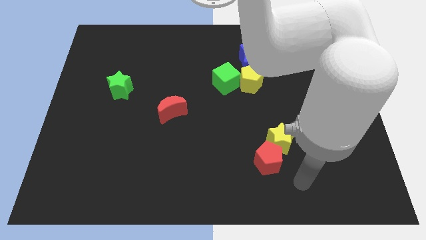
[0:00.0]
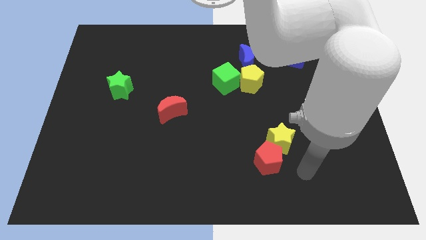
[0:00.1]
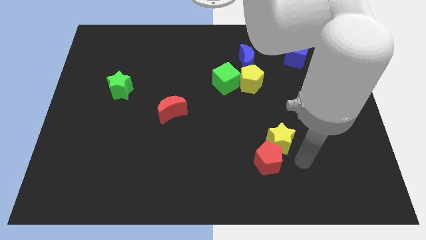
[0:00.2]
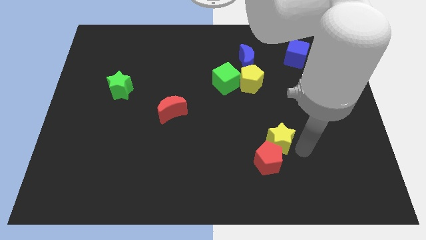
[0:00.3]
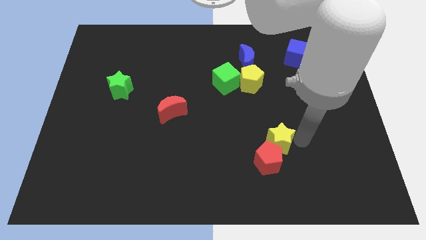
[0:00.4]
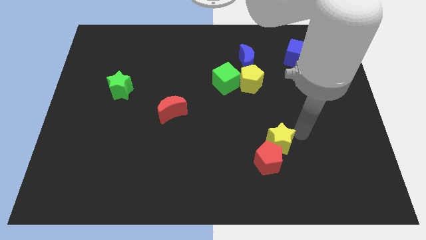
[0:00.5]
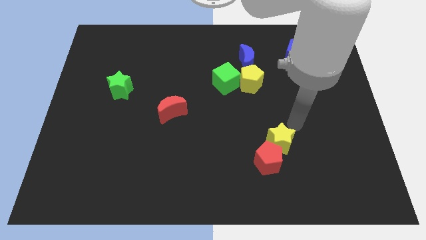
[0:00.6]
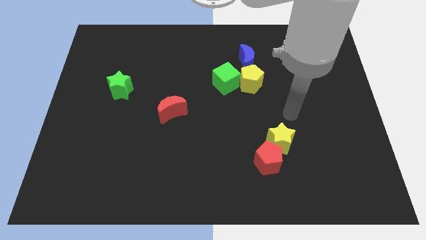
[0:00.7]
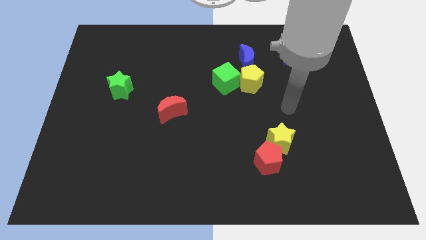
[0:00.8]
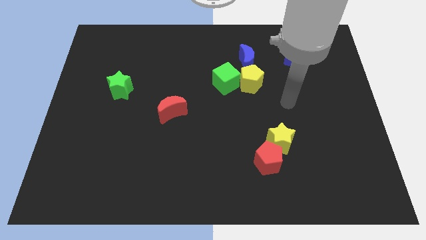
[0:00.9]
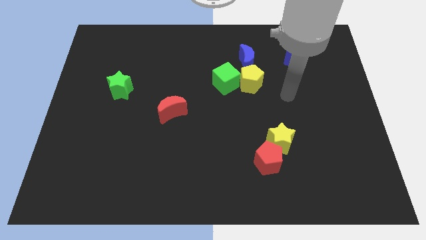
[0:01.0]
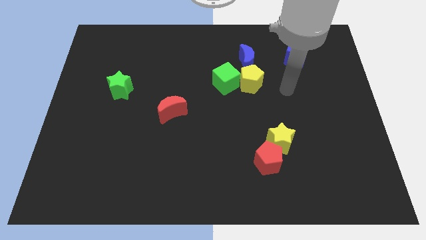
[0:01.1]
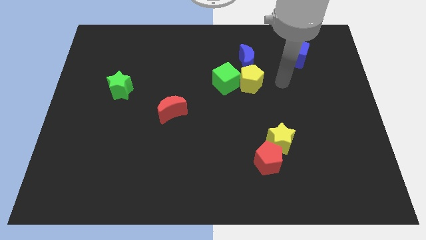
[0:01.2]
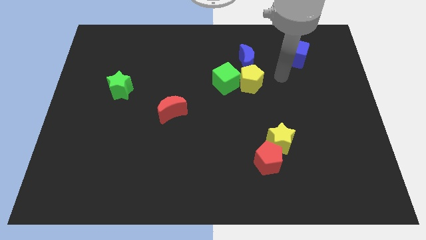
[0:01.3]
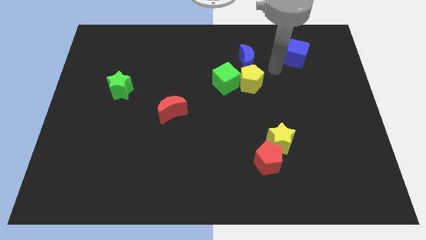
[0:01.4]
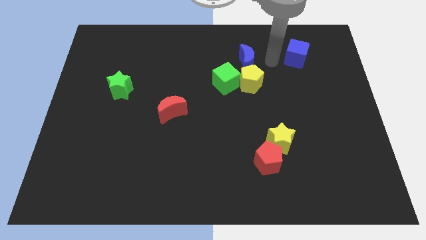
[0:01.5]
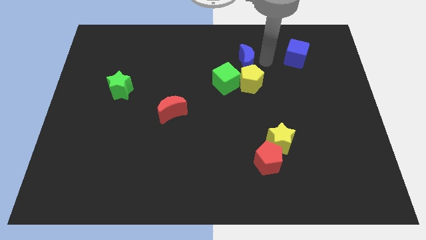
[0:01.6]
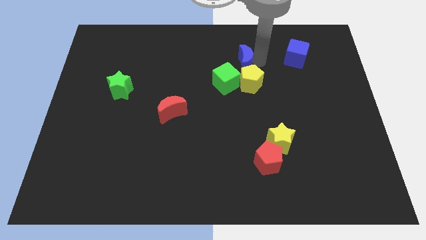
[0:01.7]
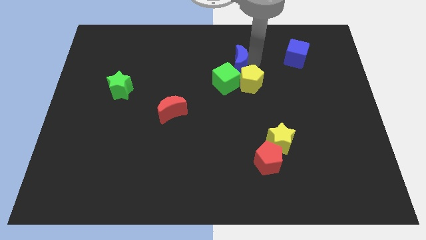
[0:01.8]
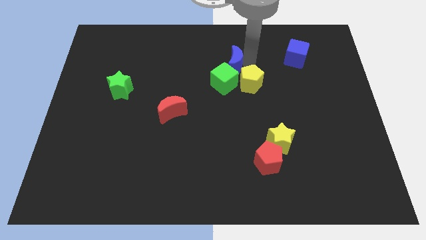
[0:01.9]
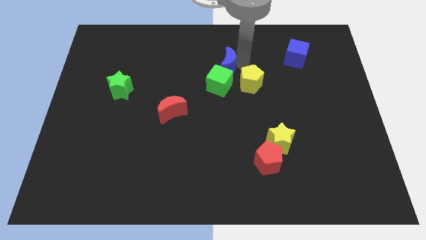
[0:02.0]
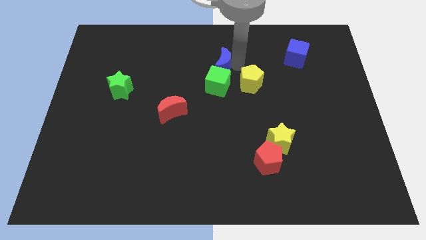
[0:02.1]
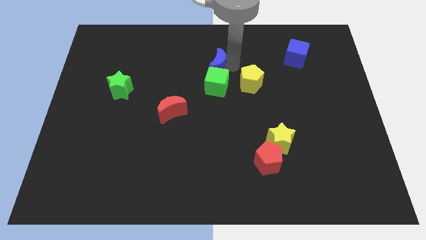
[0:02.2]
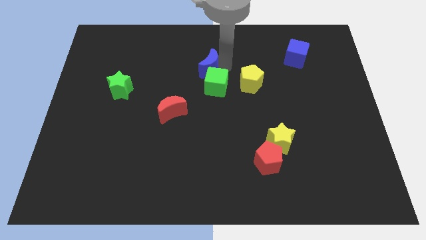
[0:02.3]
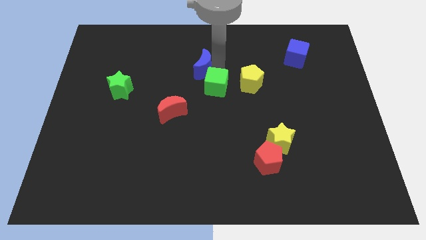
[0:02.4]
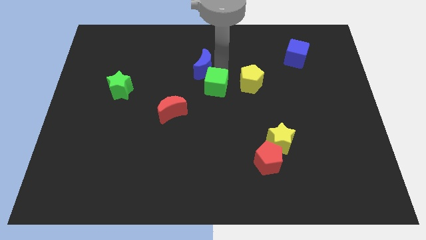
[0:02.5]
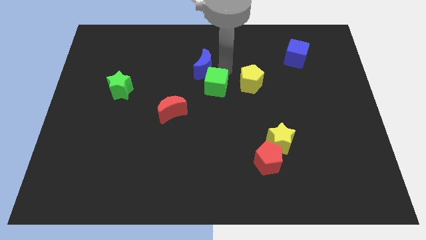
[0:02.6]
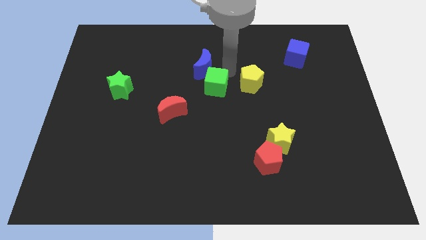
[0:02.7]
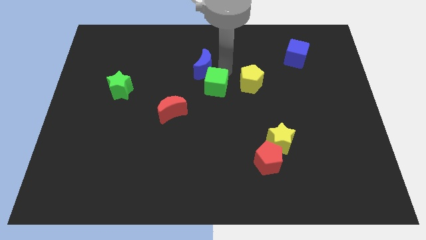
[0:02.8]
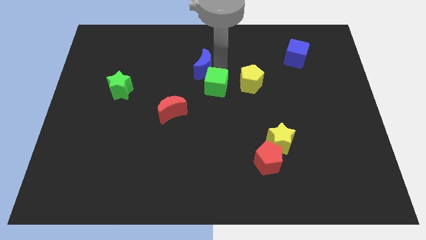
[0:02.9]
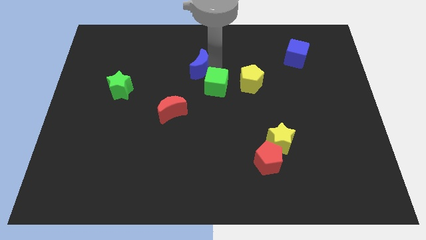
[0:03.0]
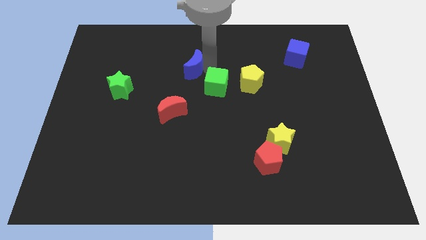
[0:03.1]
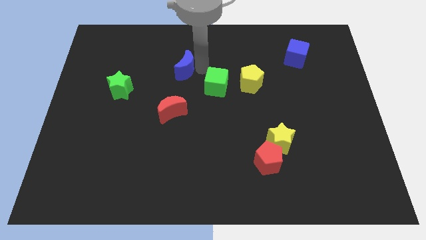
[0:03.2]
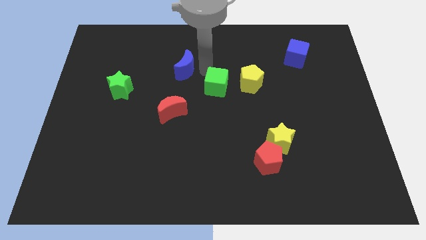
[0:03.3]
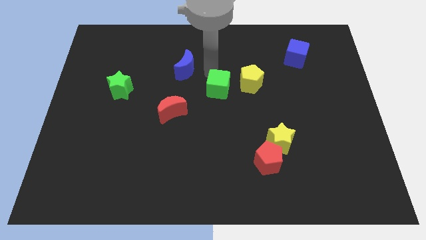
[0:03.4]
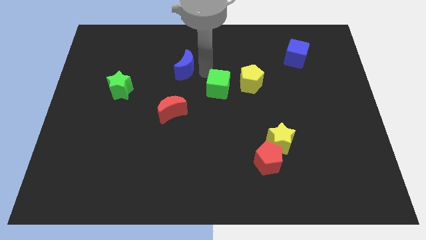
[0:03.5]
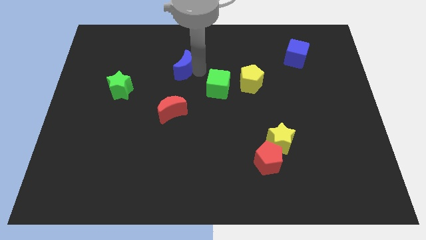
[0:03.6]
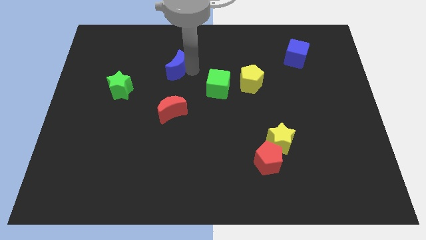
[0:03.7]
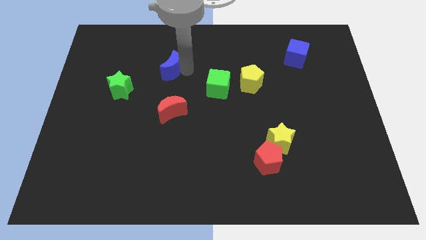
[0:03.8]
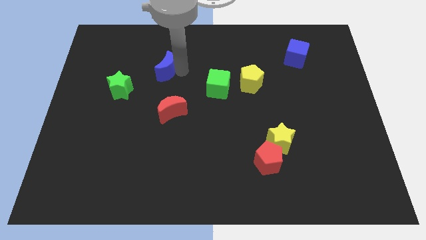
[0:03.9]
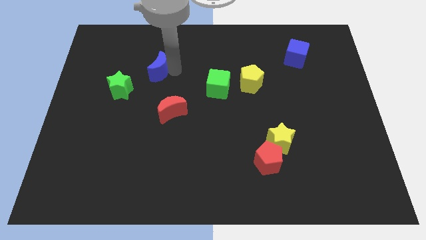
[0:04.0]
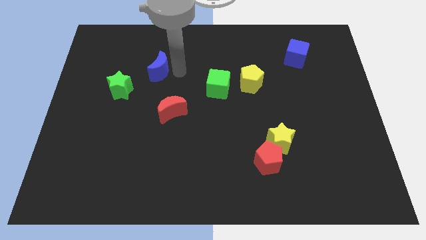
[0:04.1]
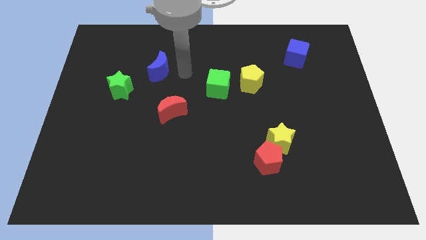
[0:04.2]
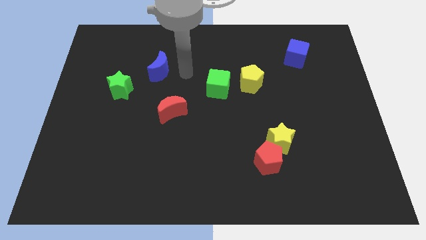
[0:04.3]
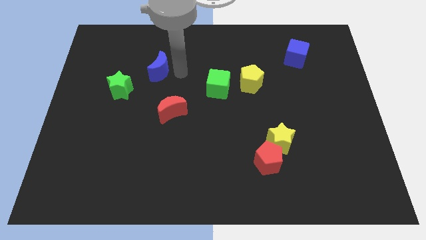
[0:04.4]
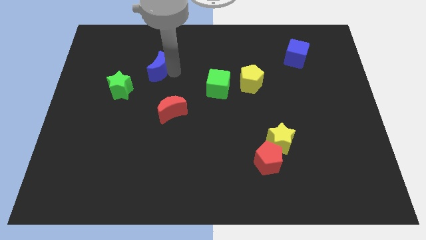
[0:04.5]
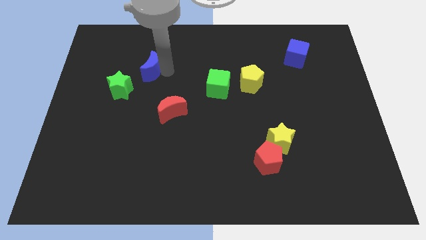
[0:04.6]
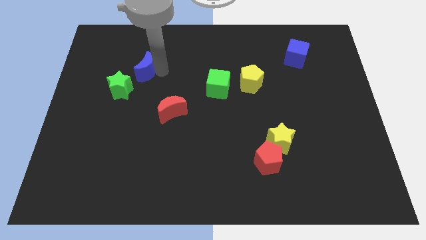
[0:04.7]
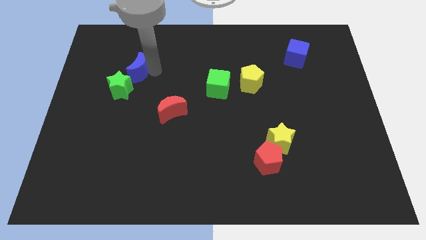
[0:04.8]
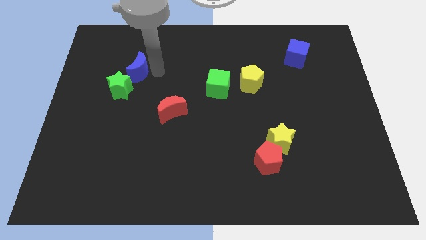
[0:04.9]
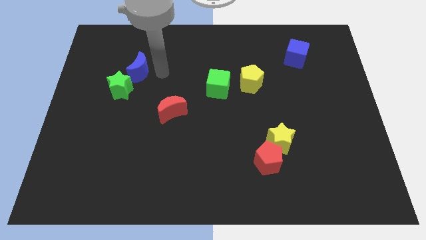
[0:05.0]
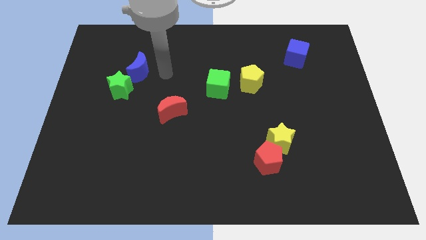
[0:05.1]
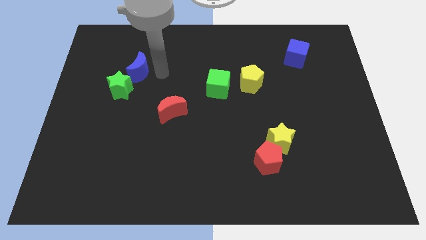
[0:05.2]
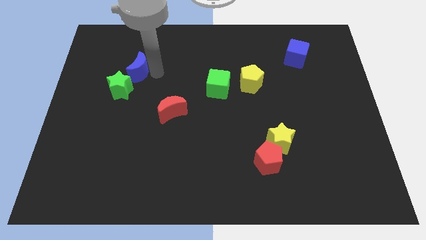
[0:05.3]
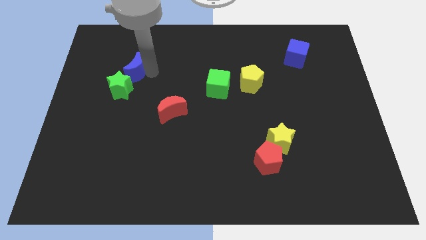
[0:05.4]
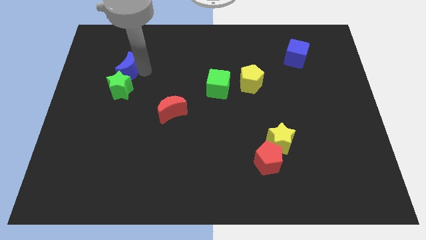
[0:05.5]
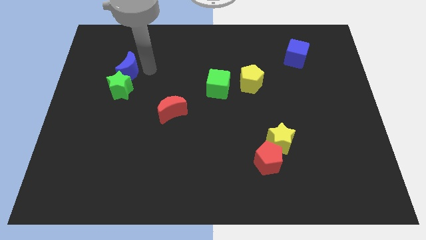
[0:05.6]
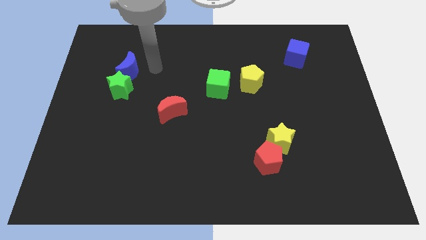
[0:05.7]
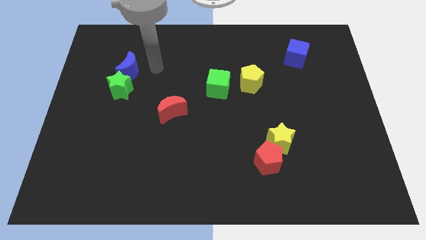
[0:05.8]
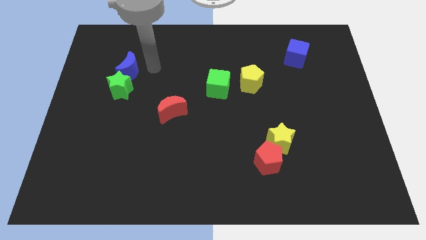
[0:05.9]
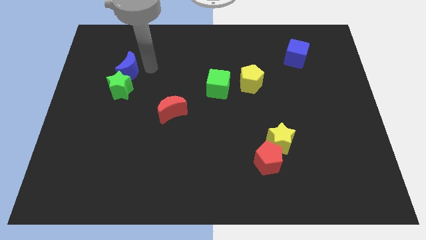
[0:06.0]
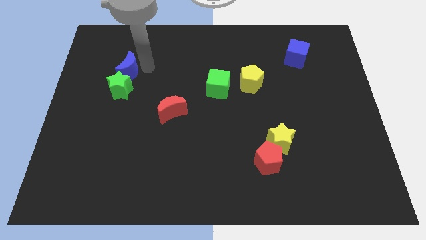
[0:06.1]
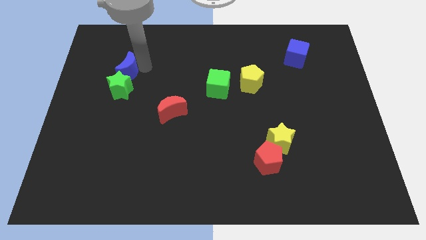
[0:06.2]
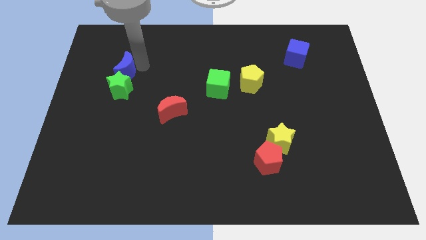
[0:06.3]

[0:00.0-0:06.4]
move the blue moon diagonally up and to the left of the green star

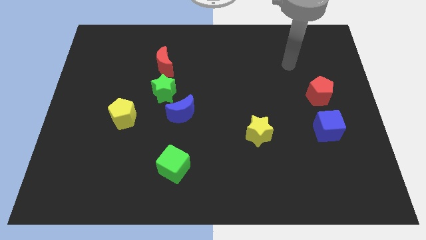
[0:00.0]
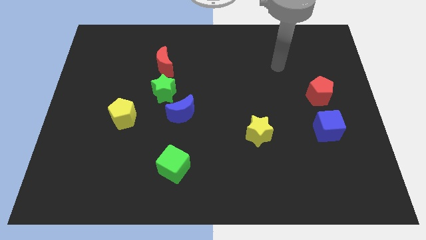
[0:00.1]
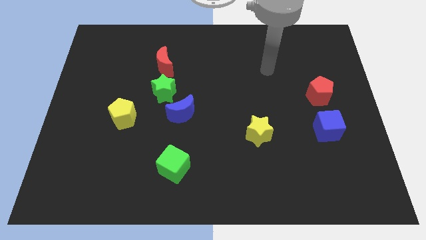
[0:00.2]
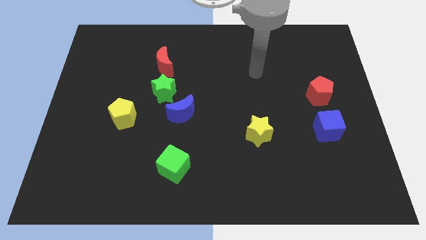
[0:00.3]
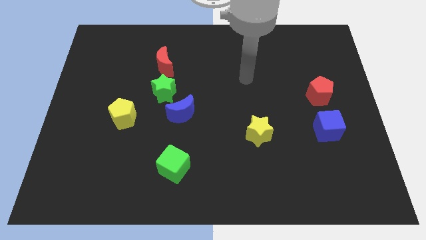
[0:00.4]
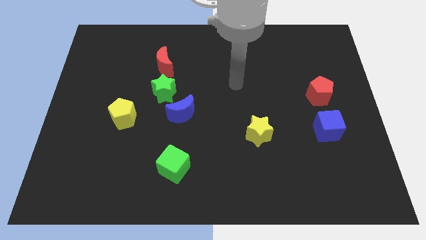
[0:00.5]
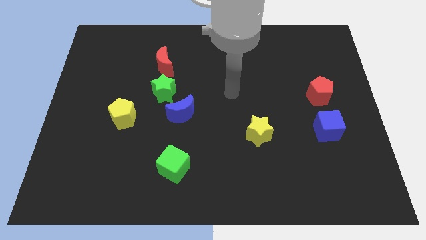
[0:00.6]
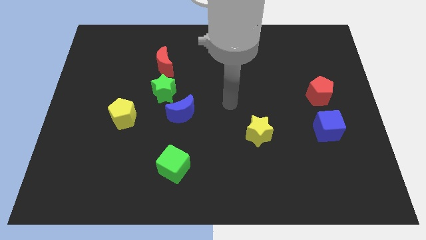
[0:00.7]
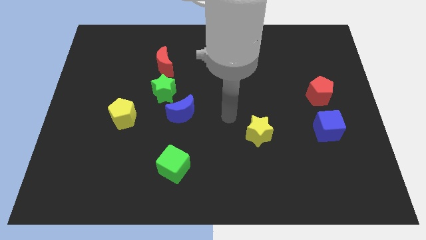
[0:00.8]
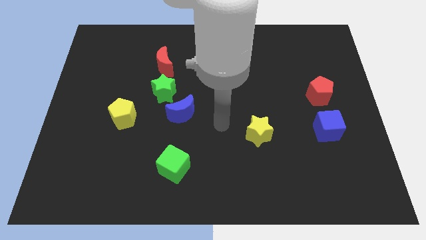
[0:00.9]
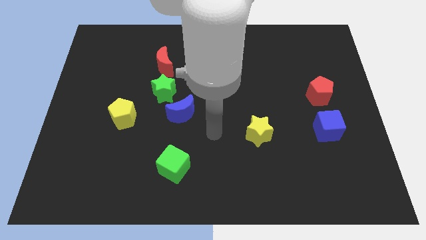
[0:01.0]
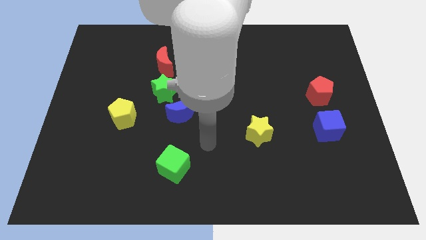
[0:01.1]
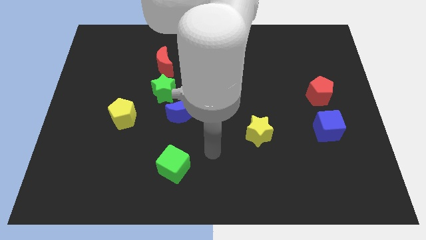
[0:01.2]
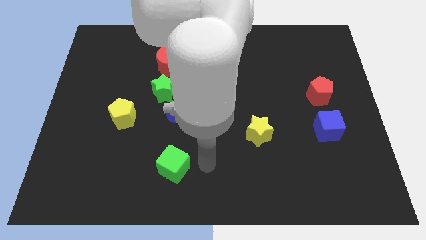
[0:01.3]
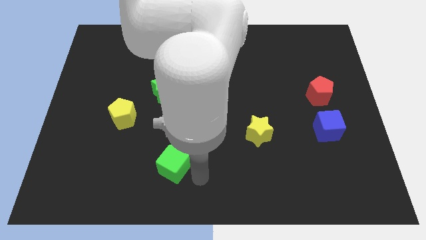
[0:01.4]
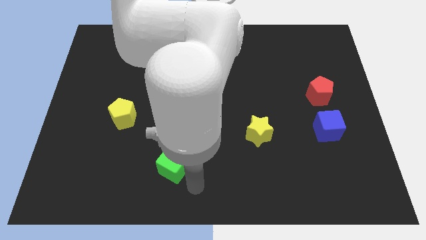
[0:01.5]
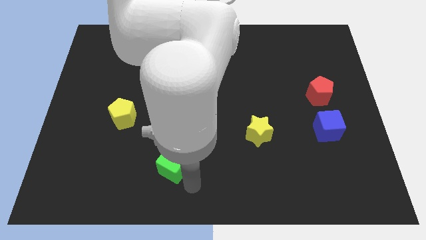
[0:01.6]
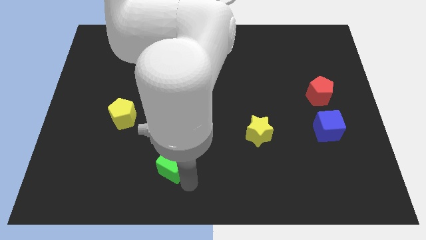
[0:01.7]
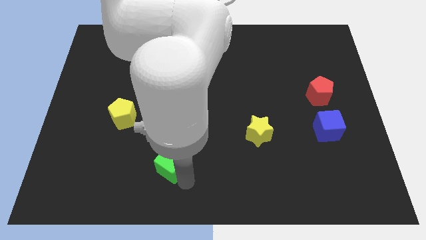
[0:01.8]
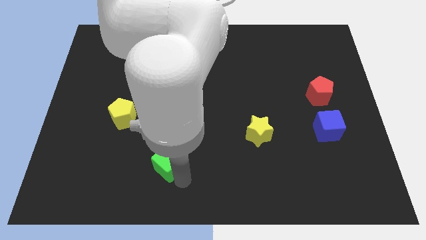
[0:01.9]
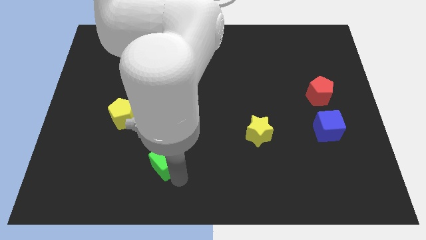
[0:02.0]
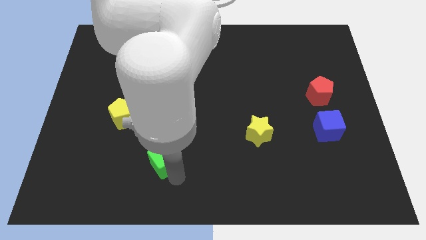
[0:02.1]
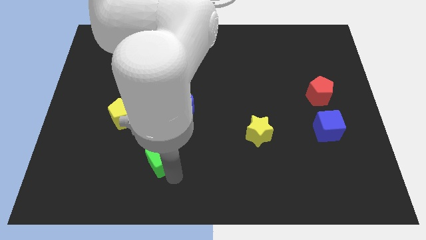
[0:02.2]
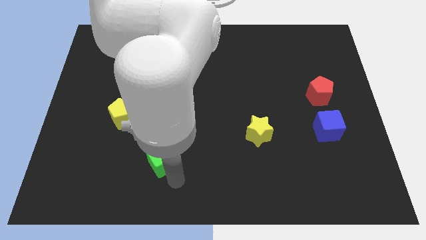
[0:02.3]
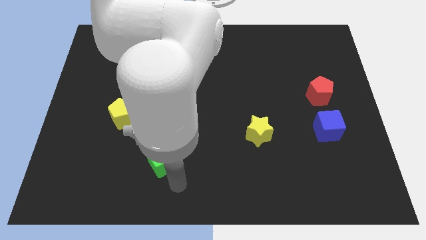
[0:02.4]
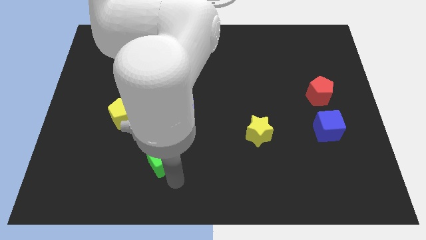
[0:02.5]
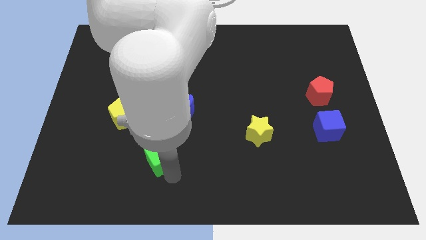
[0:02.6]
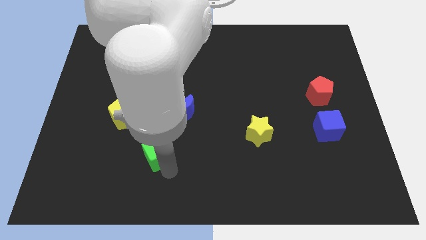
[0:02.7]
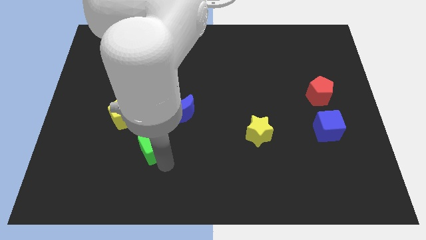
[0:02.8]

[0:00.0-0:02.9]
put the green cube diagonally down and to the right of the yellow pentagon
